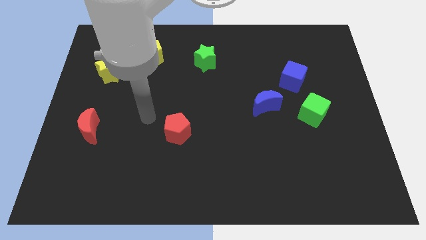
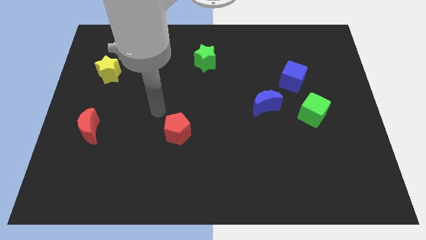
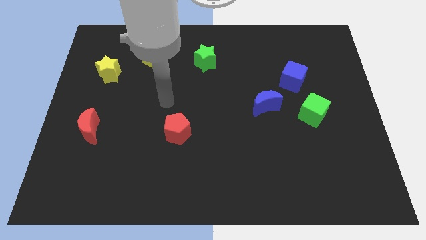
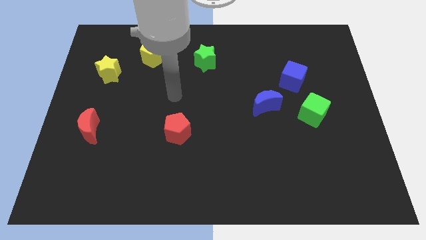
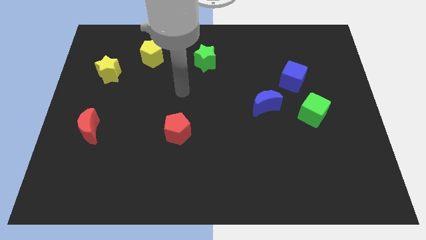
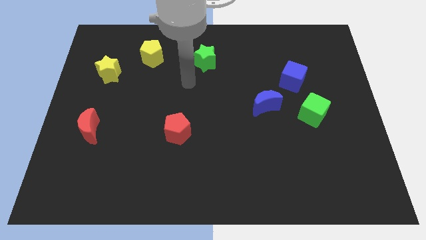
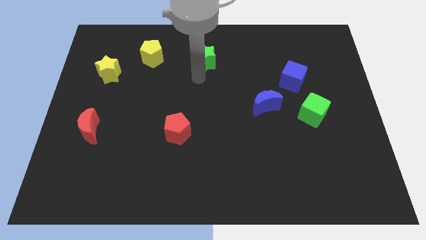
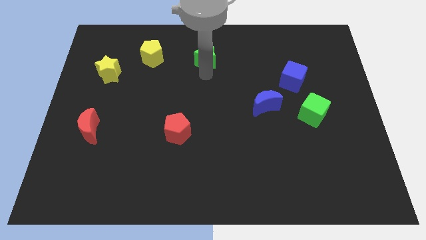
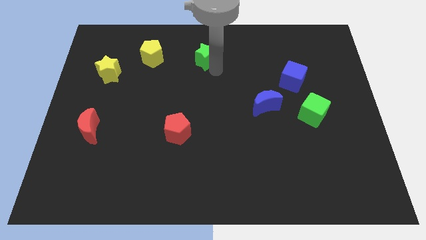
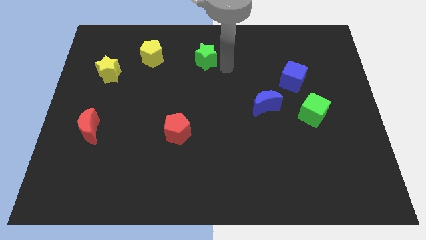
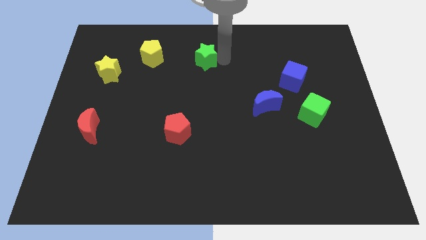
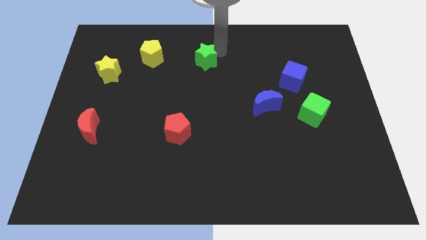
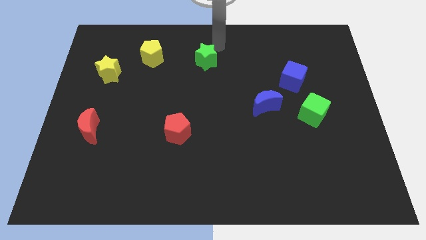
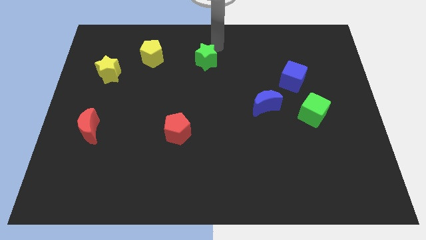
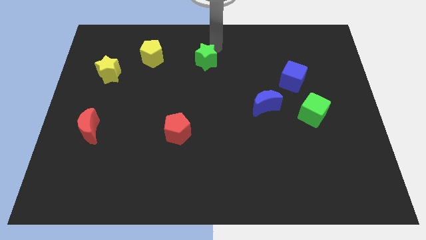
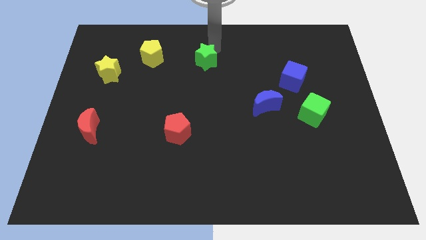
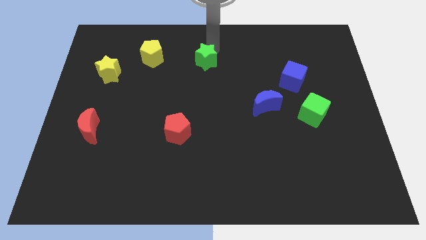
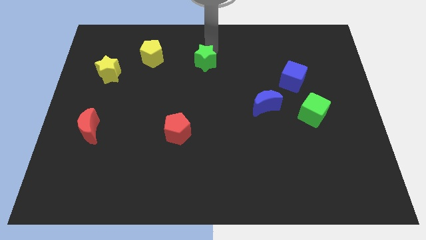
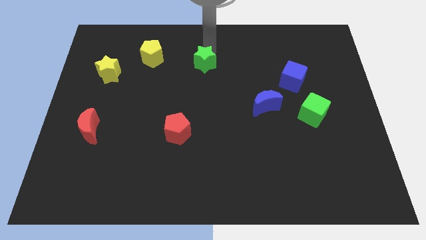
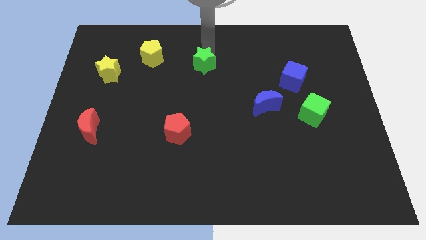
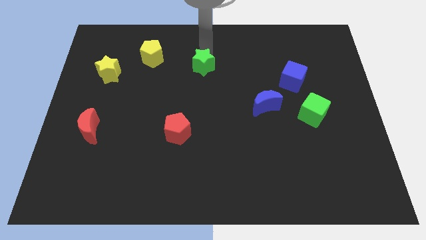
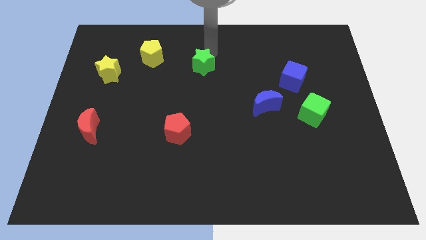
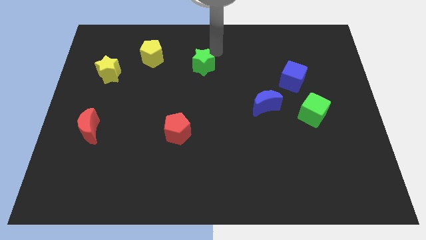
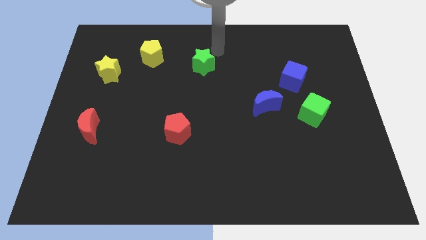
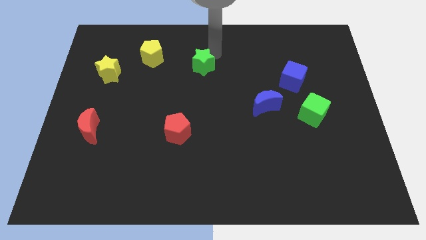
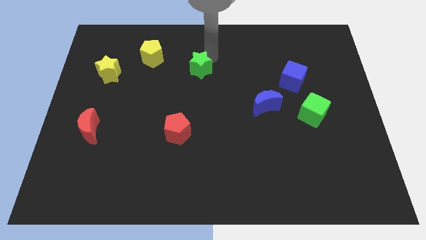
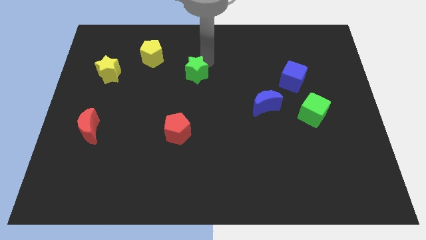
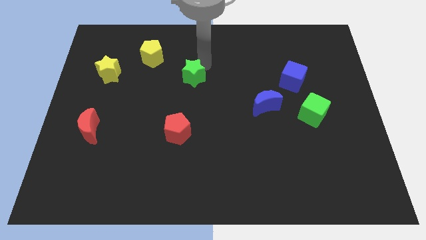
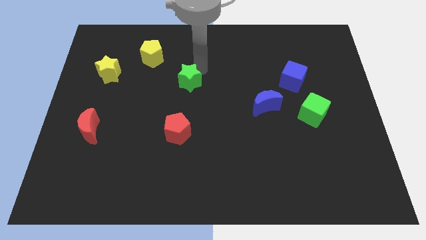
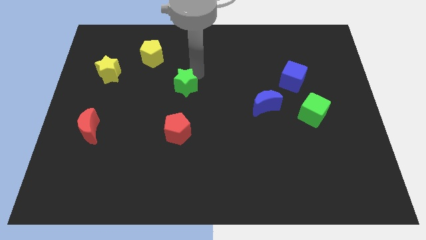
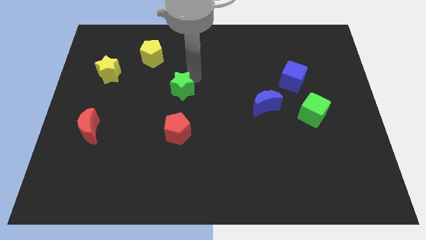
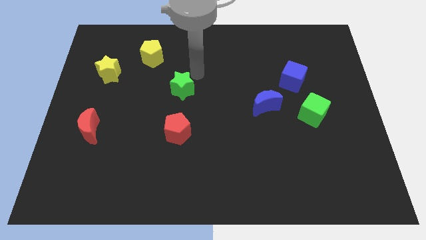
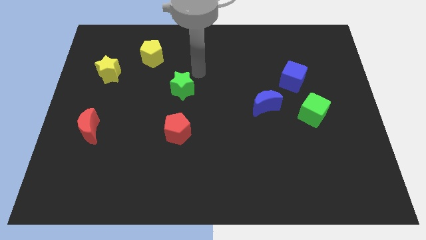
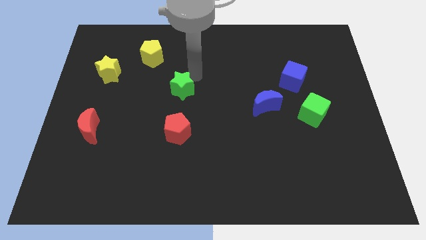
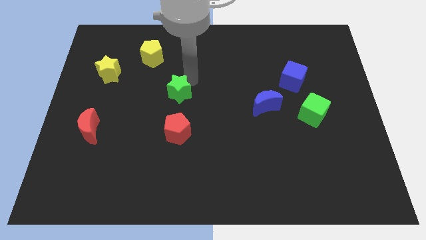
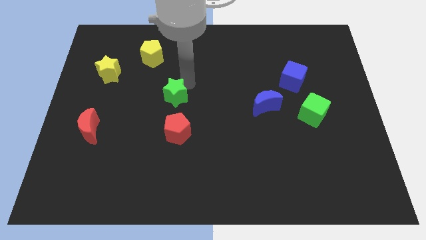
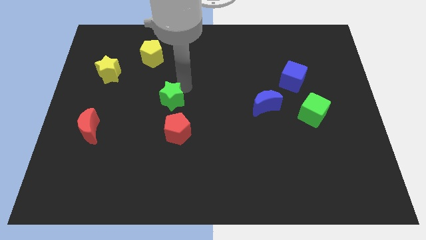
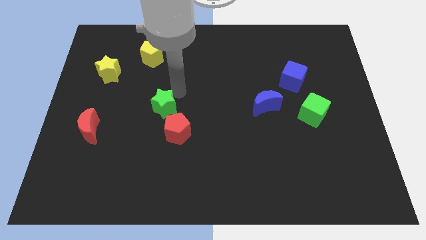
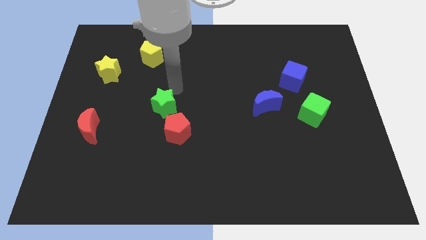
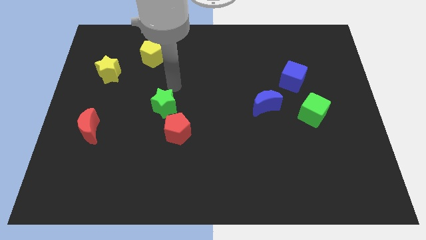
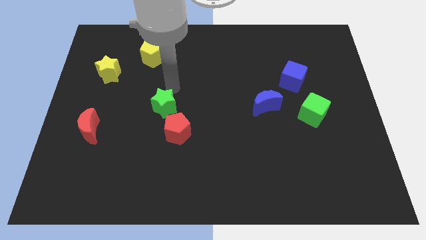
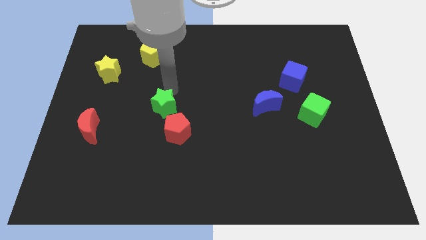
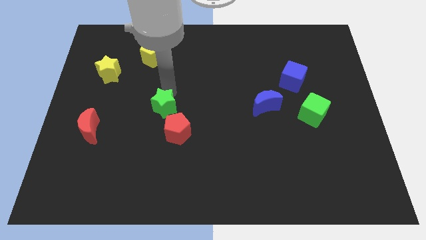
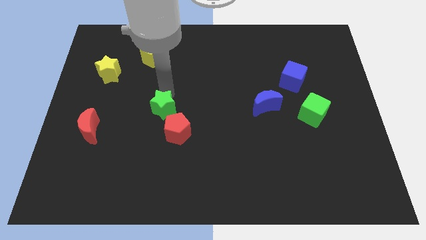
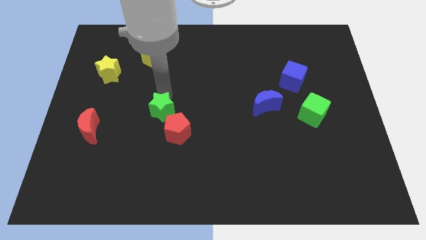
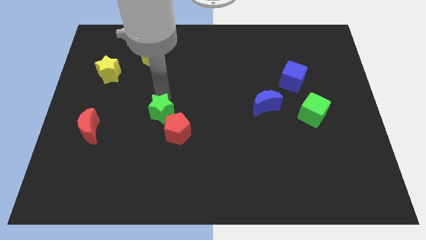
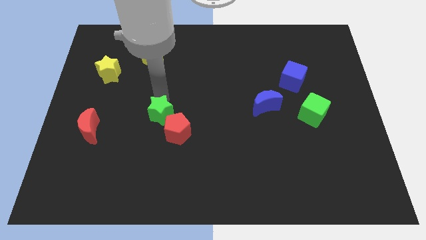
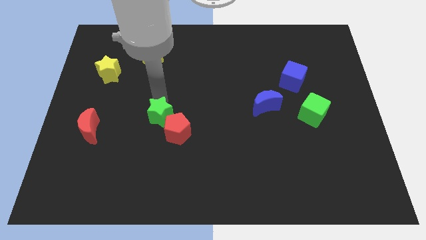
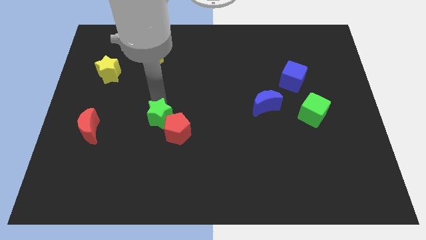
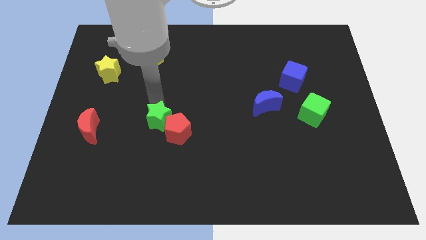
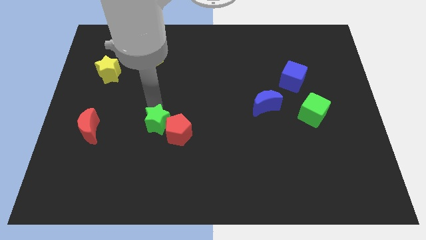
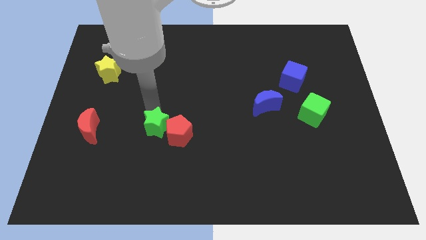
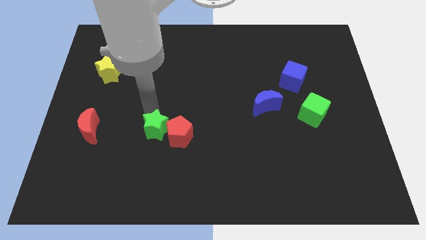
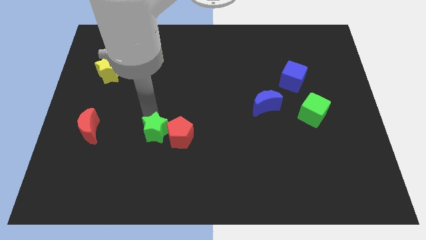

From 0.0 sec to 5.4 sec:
push the green star to the bottom left side of the red pentagon

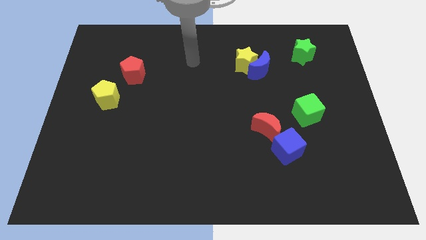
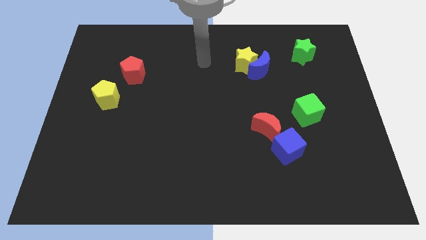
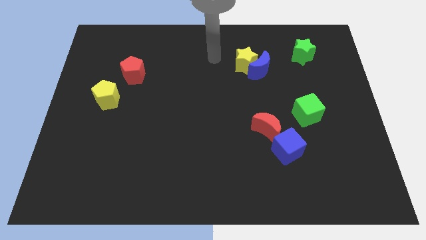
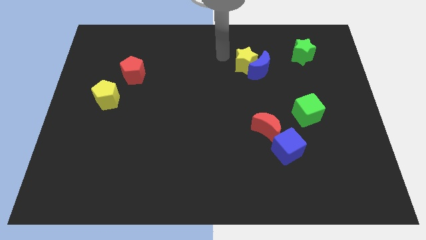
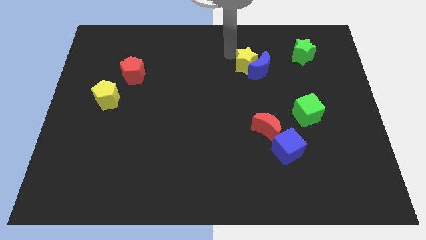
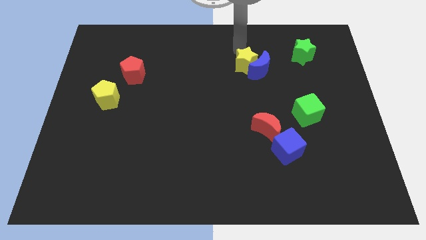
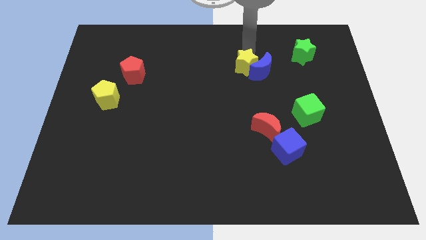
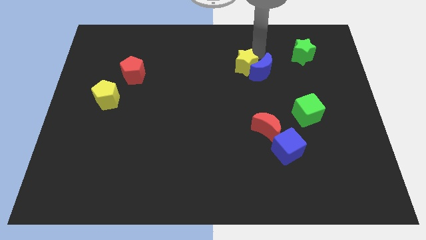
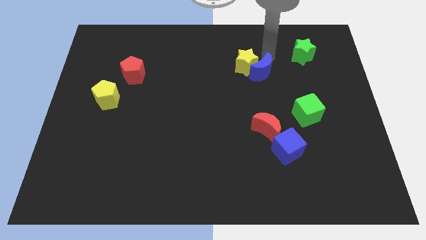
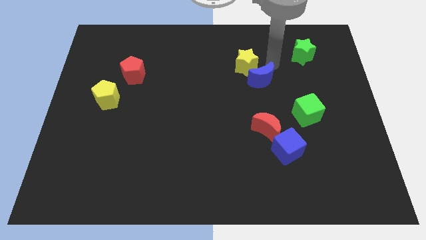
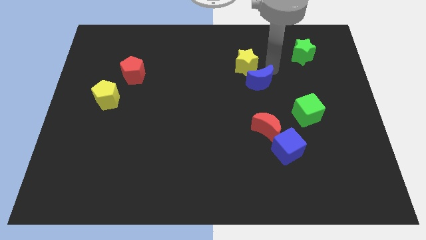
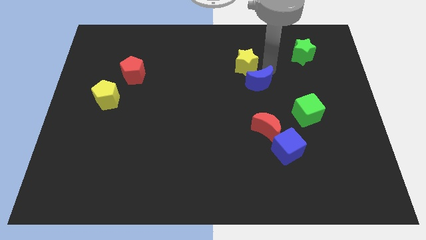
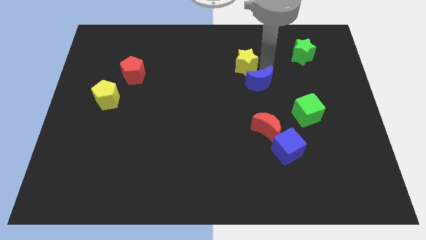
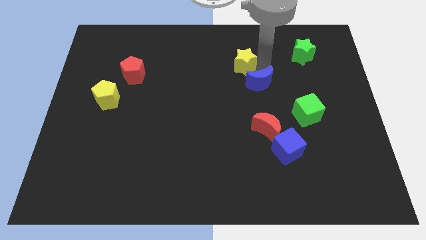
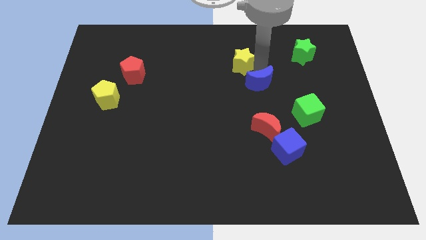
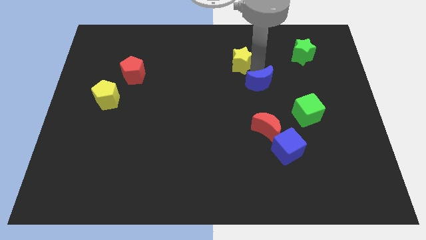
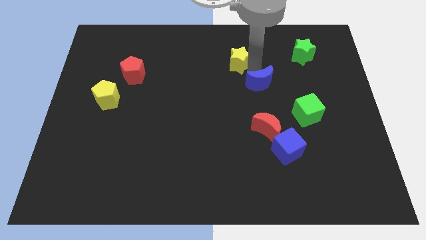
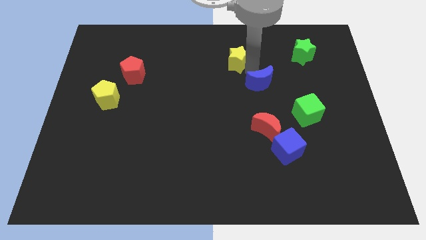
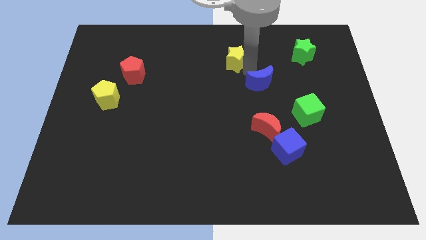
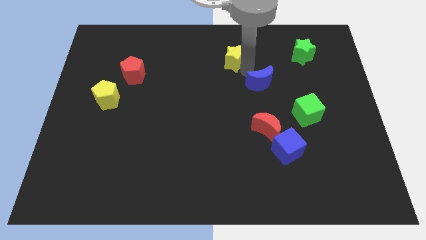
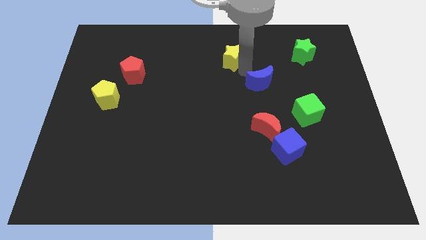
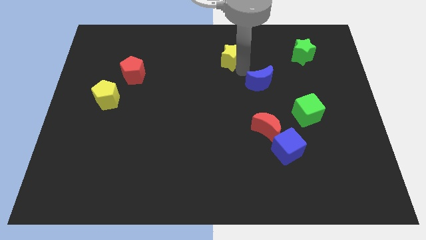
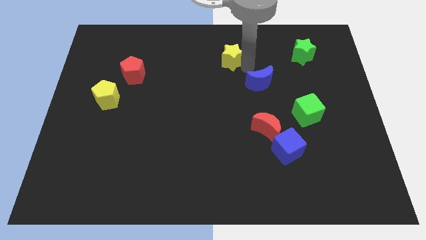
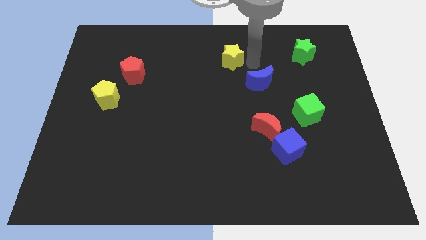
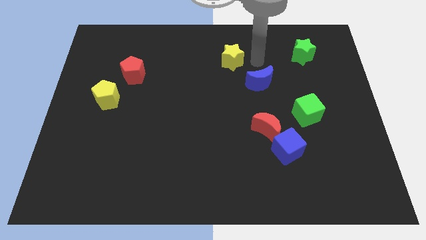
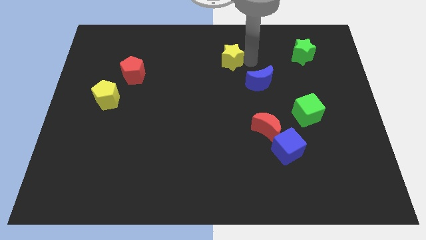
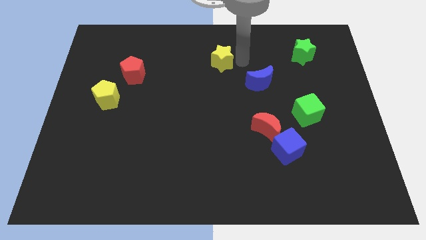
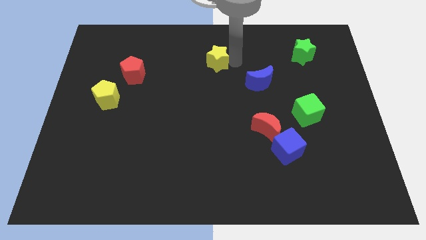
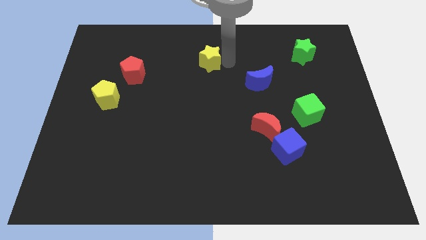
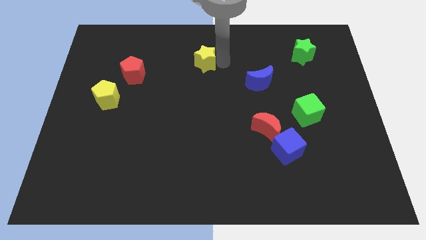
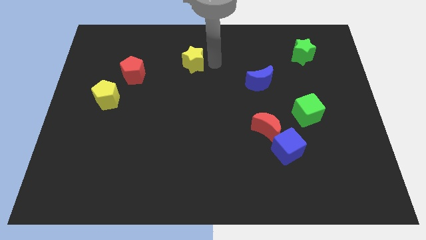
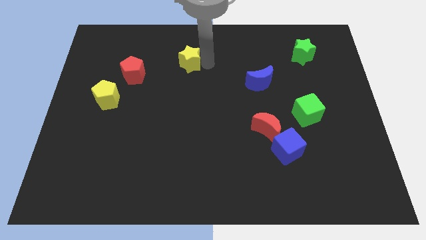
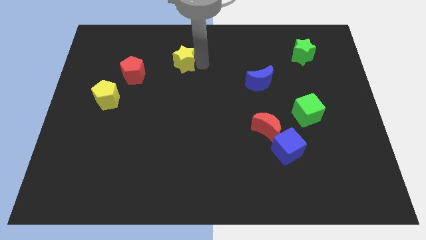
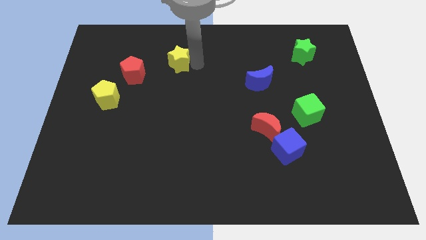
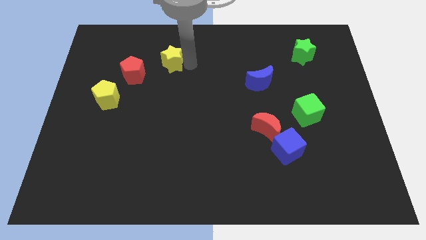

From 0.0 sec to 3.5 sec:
slide the yellow star to the top right of the red pentagon
